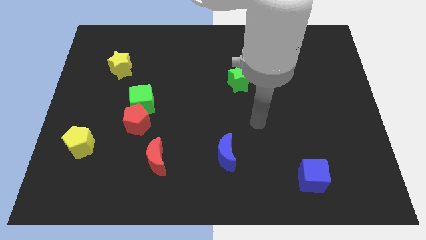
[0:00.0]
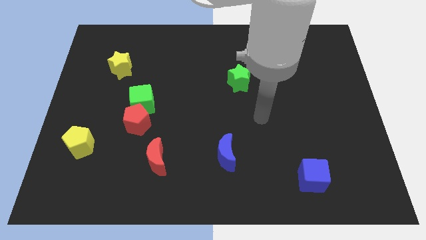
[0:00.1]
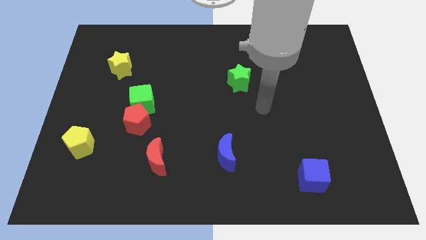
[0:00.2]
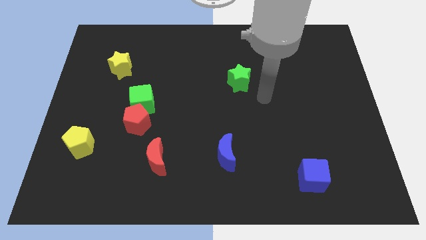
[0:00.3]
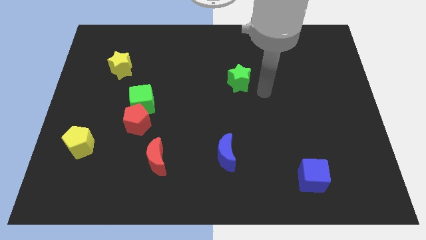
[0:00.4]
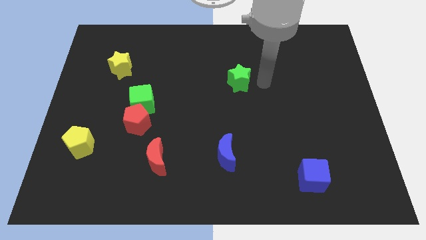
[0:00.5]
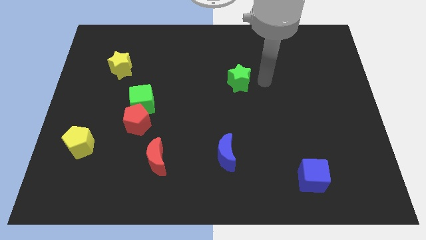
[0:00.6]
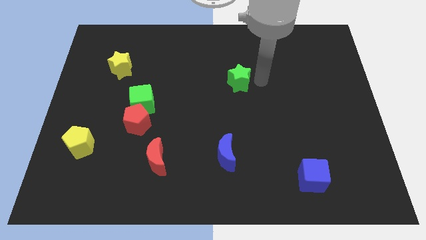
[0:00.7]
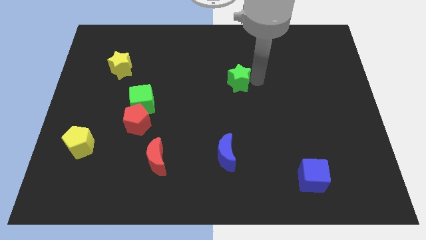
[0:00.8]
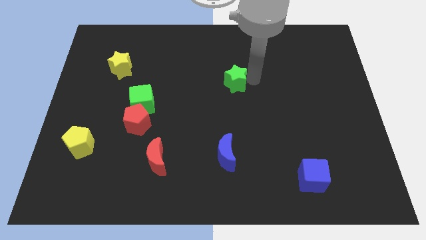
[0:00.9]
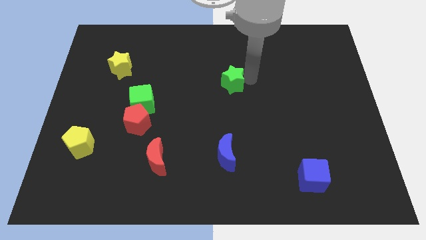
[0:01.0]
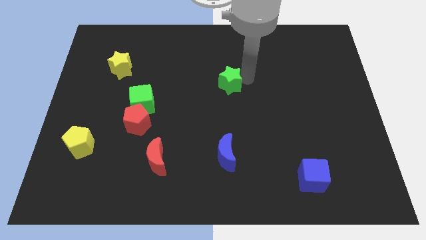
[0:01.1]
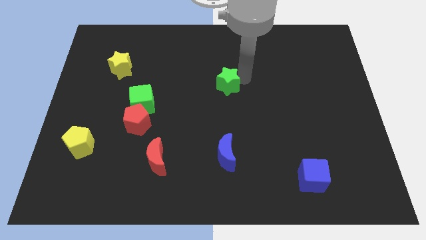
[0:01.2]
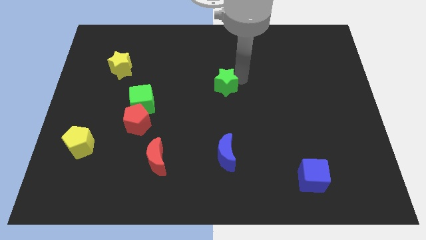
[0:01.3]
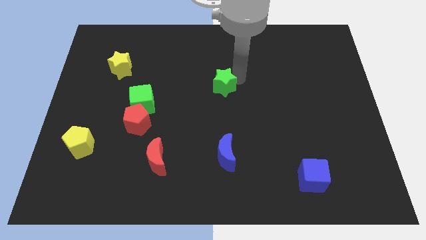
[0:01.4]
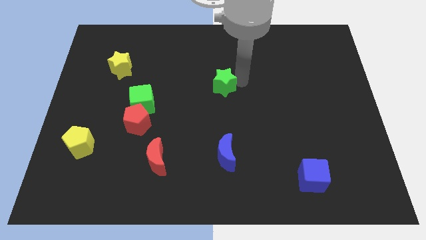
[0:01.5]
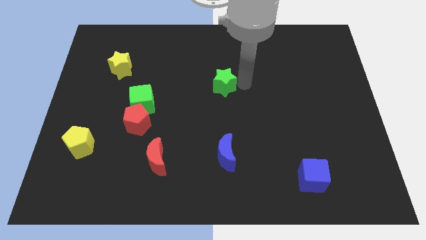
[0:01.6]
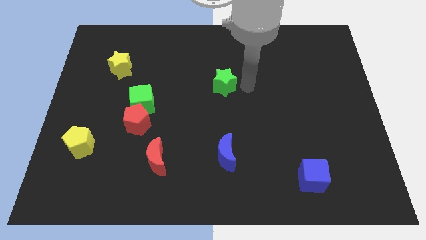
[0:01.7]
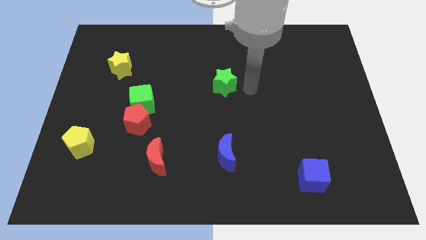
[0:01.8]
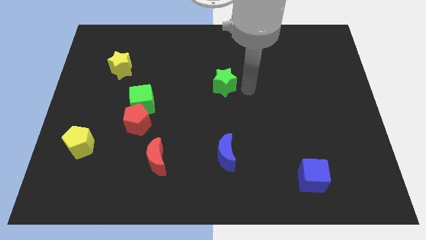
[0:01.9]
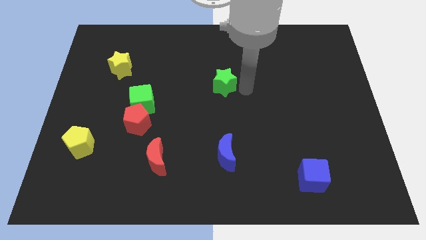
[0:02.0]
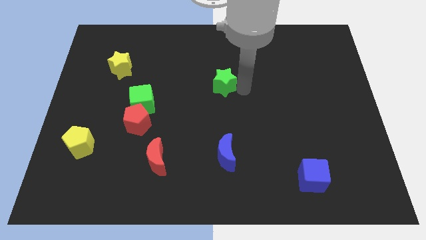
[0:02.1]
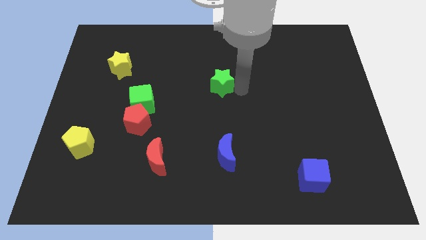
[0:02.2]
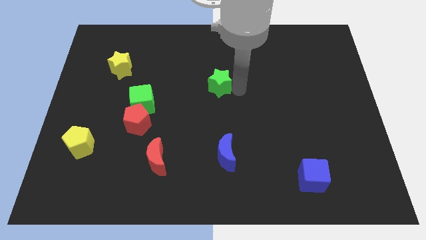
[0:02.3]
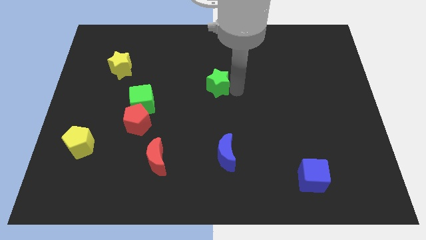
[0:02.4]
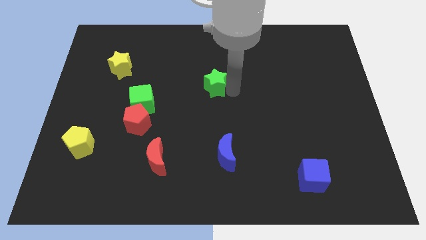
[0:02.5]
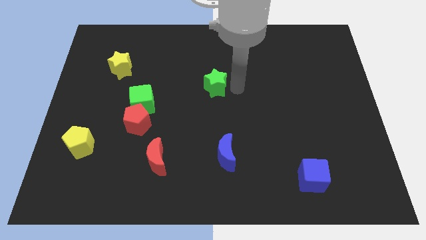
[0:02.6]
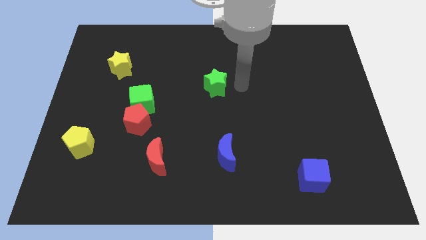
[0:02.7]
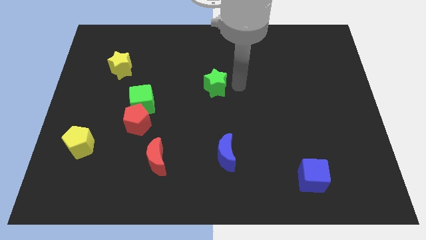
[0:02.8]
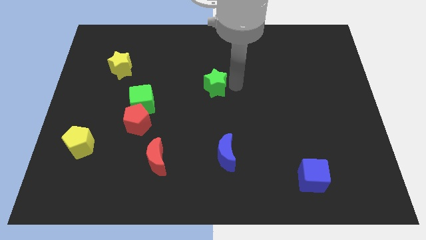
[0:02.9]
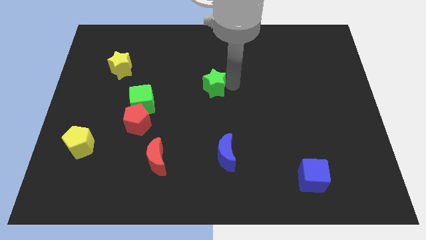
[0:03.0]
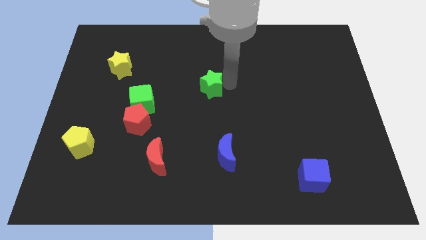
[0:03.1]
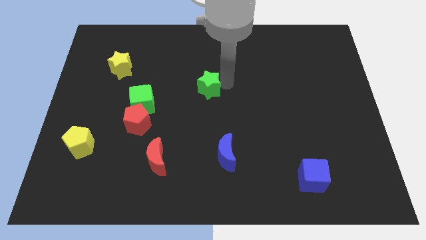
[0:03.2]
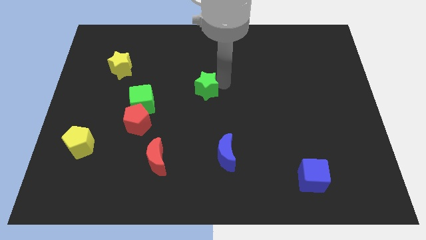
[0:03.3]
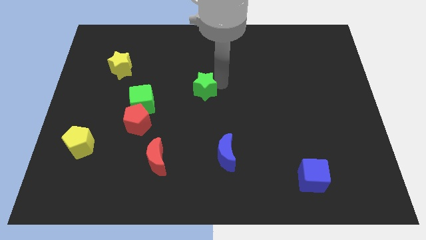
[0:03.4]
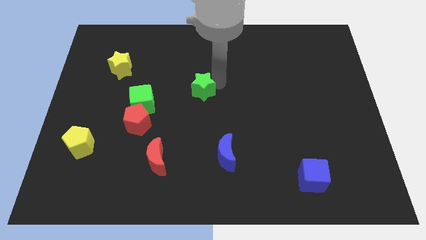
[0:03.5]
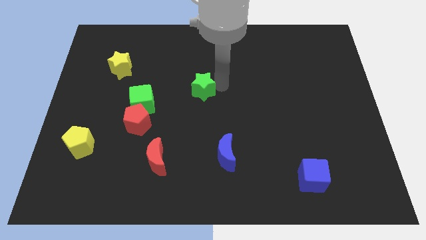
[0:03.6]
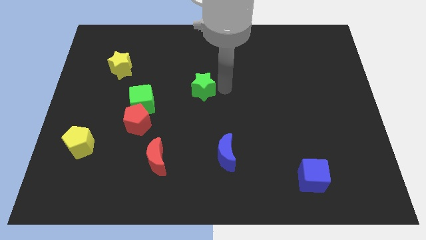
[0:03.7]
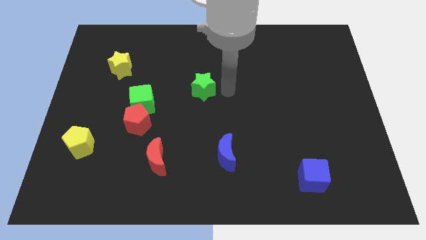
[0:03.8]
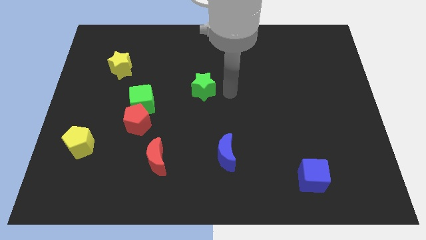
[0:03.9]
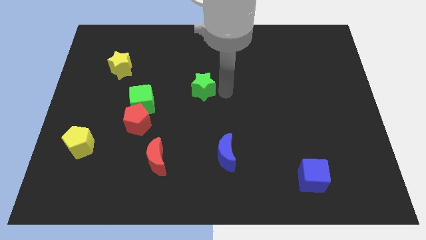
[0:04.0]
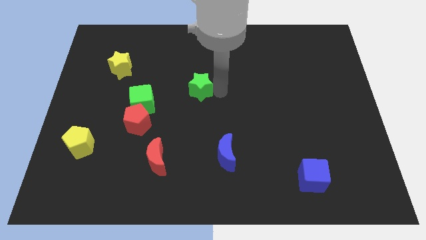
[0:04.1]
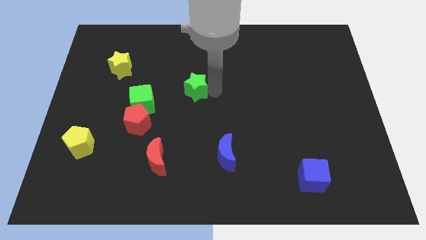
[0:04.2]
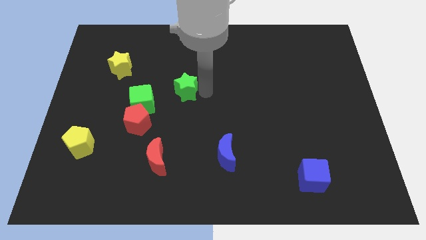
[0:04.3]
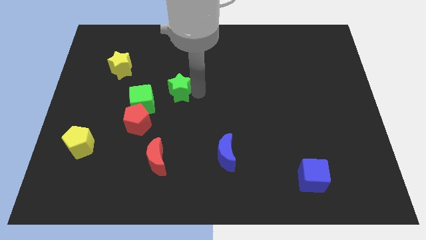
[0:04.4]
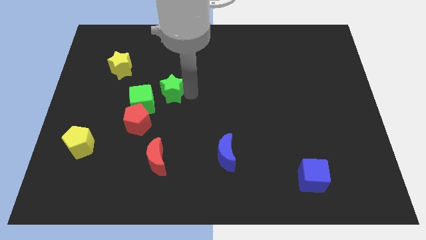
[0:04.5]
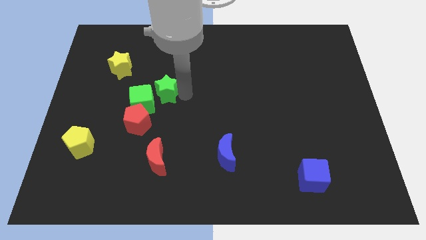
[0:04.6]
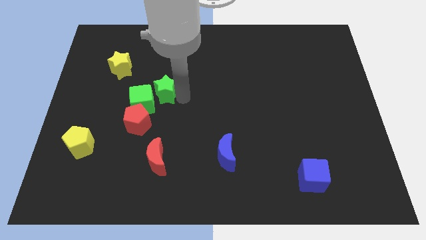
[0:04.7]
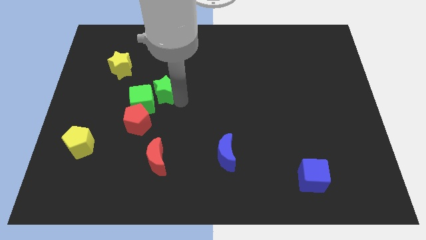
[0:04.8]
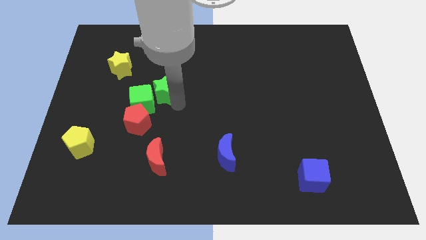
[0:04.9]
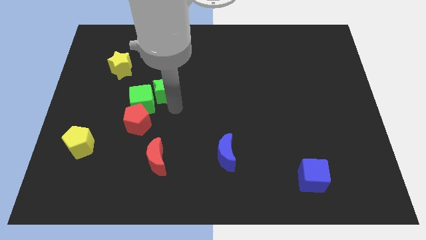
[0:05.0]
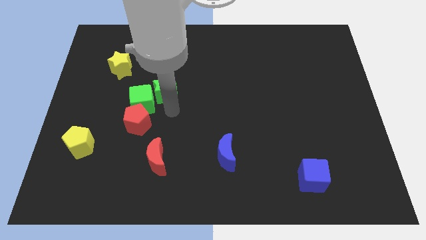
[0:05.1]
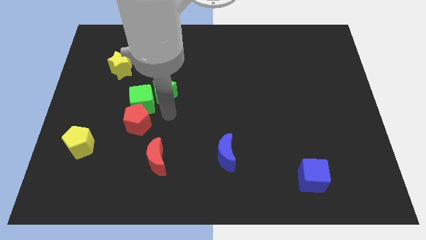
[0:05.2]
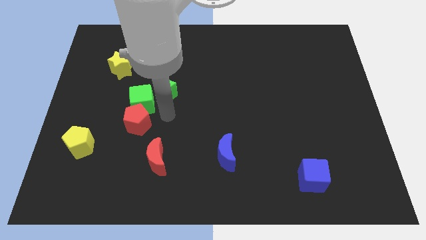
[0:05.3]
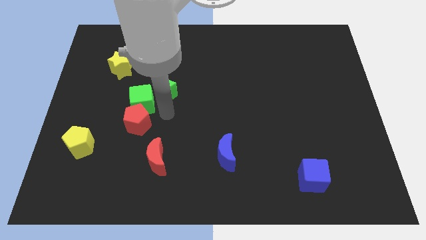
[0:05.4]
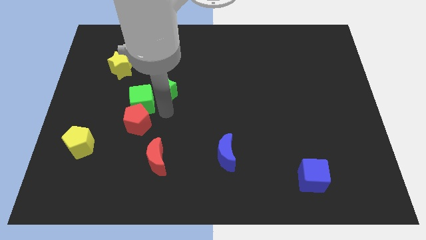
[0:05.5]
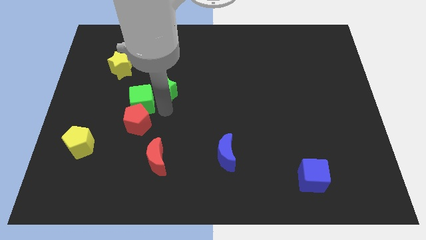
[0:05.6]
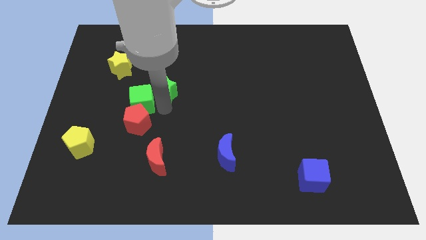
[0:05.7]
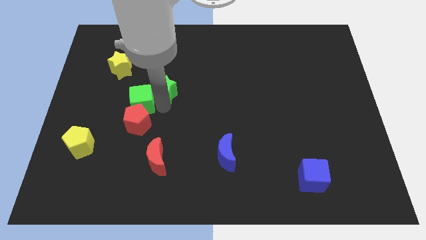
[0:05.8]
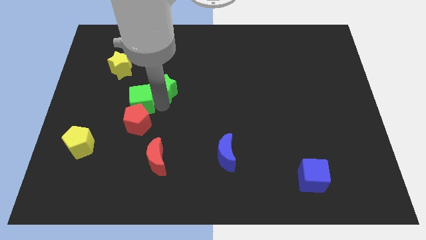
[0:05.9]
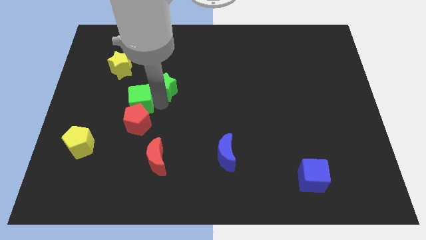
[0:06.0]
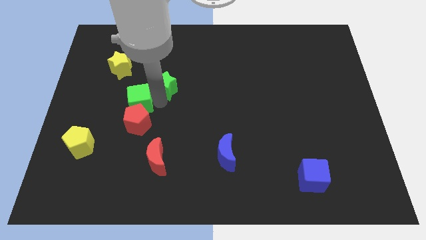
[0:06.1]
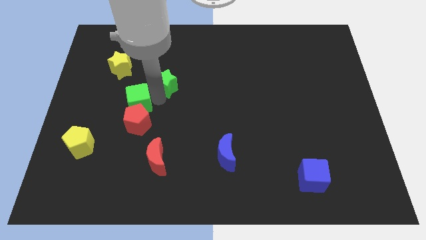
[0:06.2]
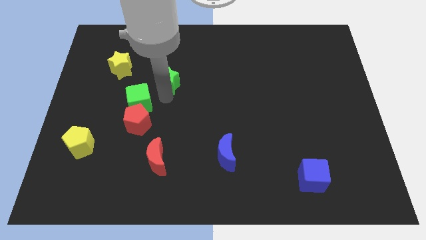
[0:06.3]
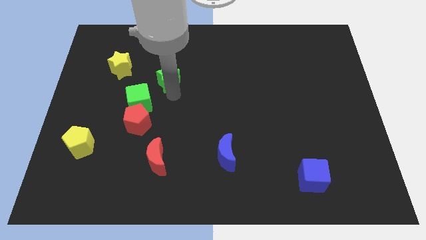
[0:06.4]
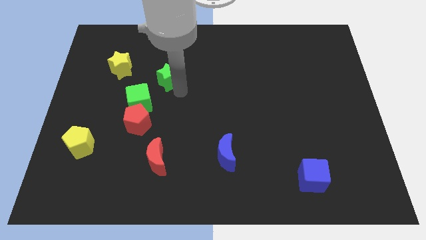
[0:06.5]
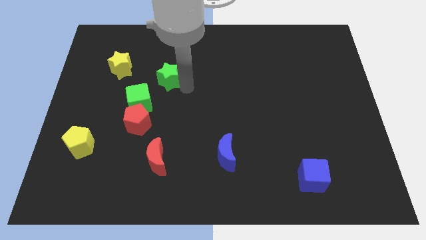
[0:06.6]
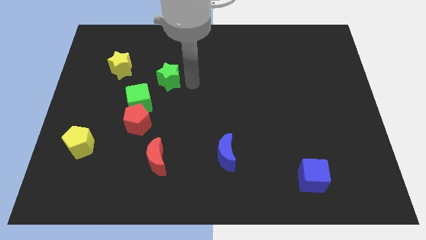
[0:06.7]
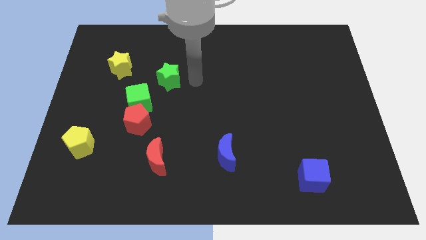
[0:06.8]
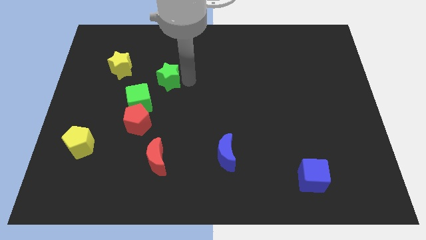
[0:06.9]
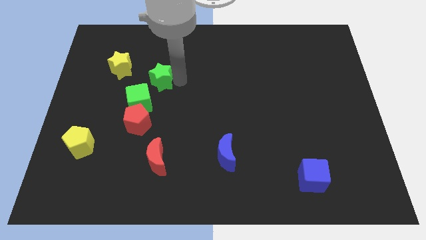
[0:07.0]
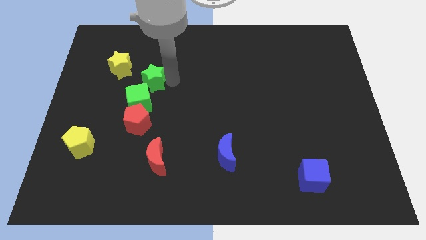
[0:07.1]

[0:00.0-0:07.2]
slide the green star to the left

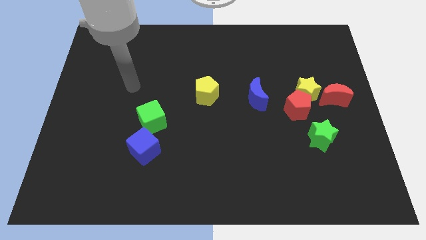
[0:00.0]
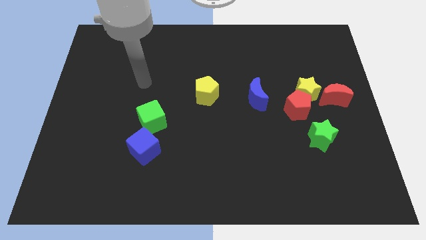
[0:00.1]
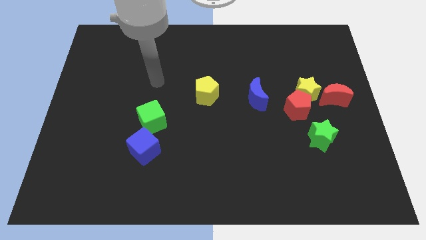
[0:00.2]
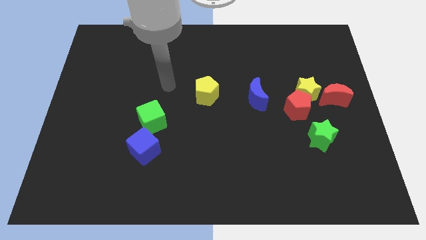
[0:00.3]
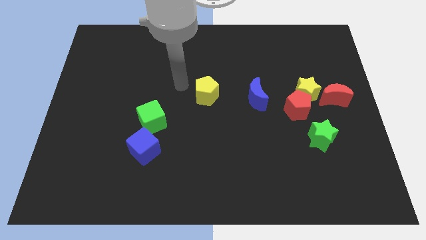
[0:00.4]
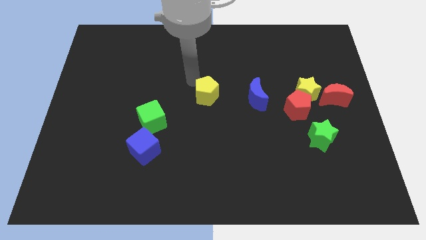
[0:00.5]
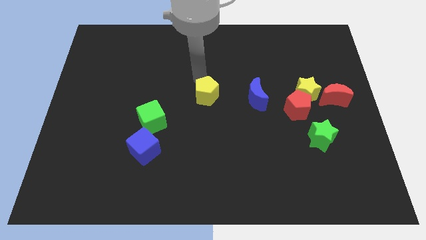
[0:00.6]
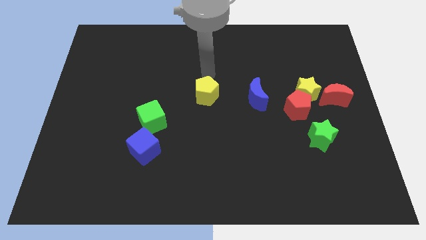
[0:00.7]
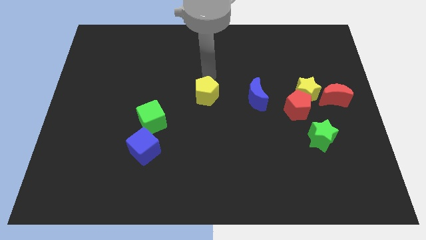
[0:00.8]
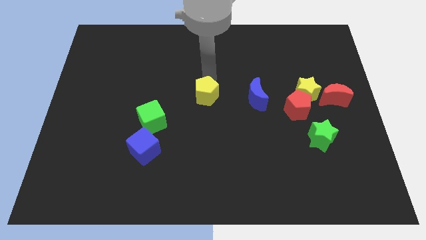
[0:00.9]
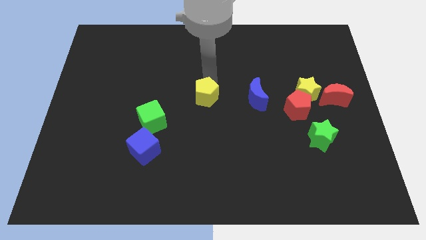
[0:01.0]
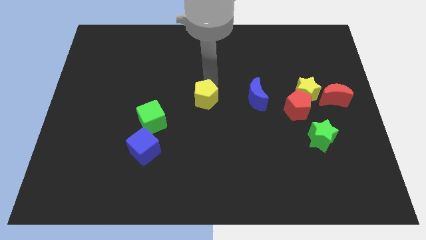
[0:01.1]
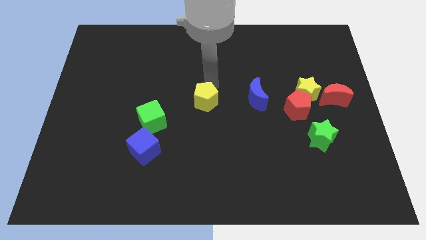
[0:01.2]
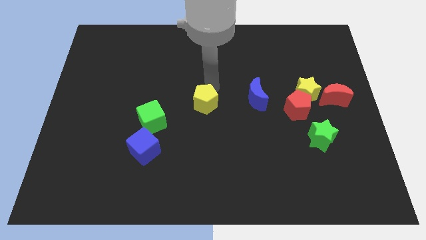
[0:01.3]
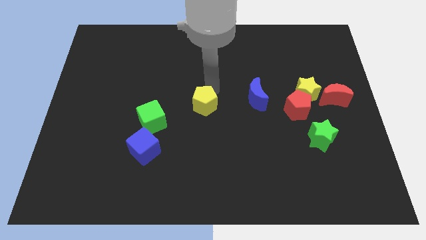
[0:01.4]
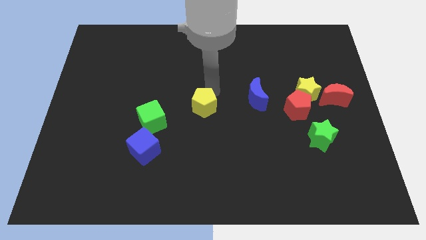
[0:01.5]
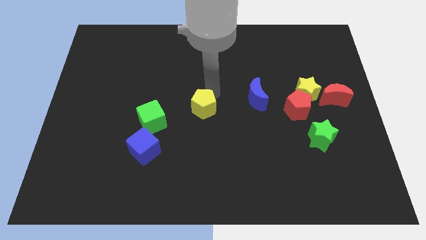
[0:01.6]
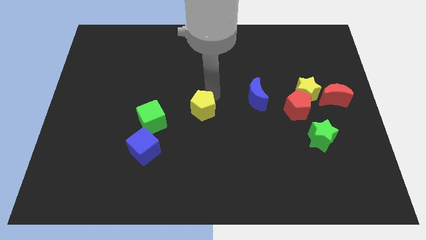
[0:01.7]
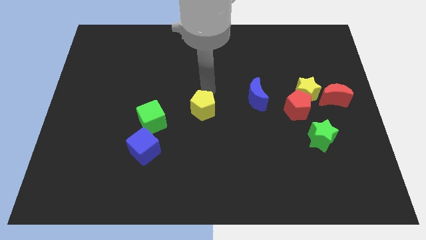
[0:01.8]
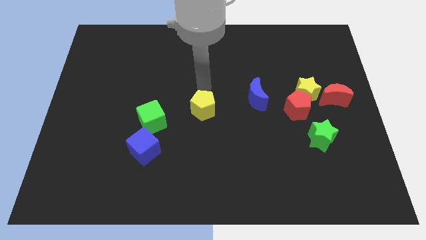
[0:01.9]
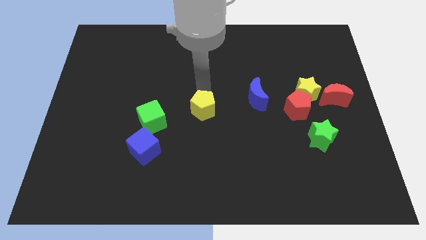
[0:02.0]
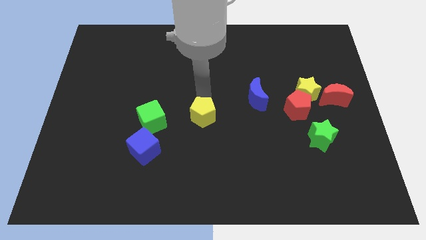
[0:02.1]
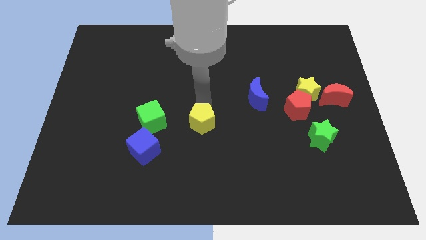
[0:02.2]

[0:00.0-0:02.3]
slightly slide the yellow pentagon down
